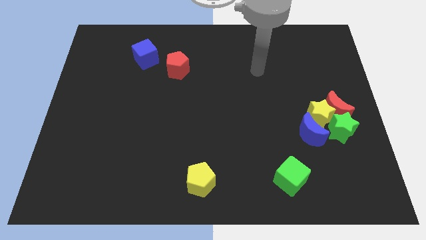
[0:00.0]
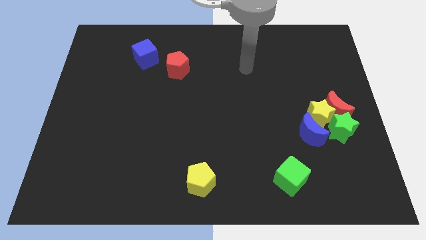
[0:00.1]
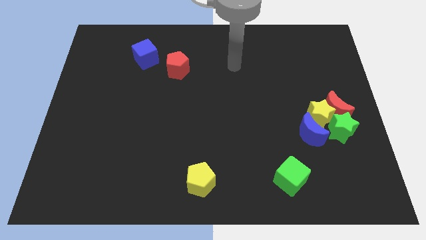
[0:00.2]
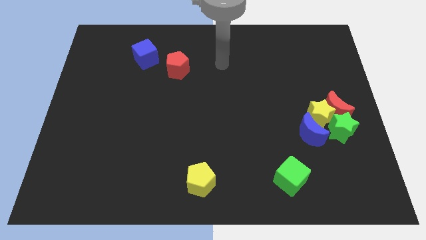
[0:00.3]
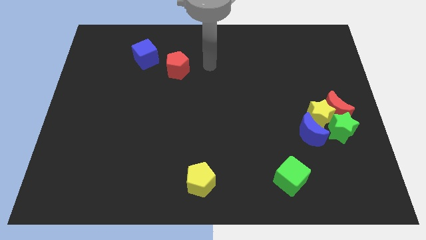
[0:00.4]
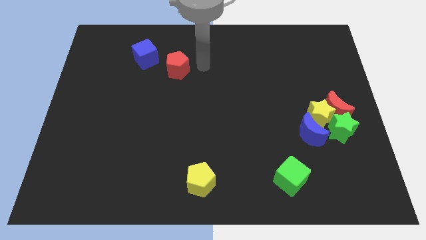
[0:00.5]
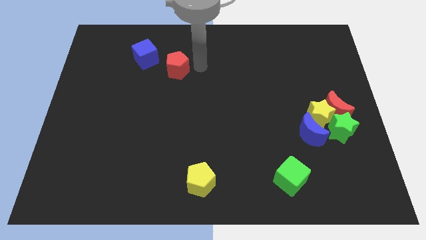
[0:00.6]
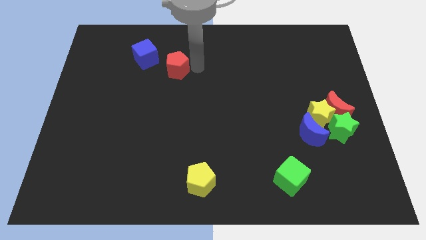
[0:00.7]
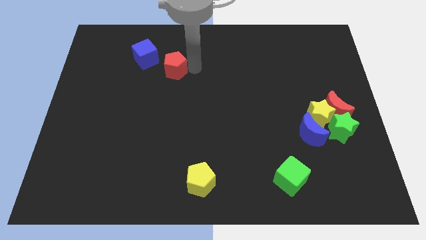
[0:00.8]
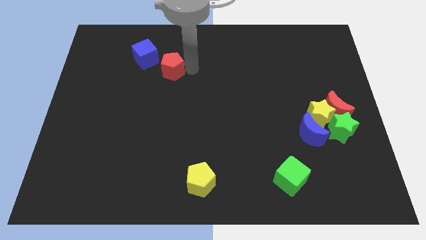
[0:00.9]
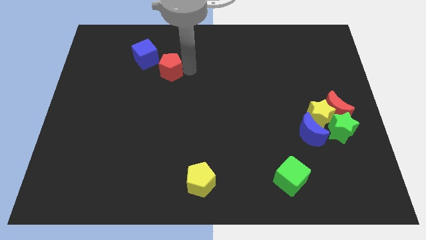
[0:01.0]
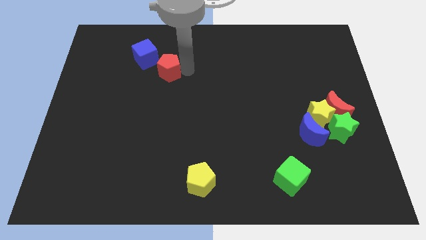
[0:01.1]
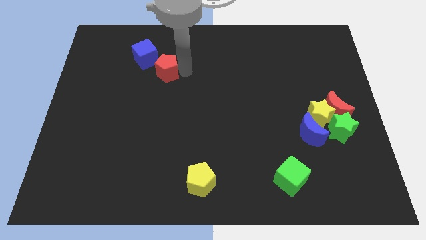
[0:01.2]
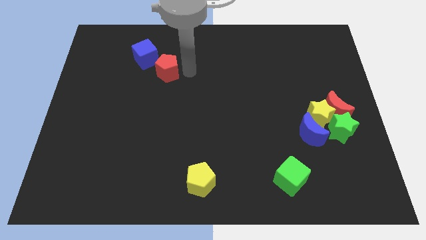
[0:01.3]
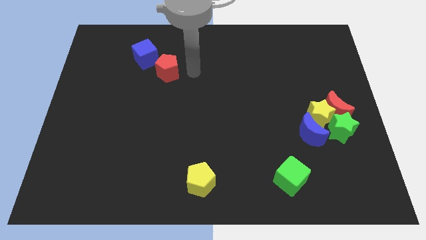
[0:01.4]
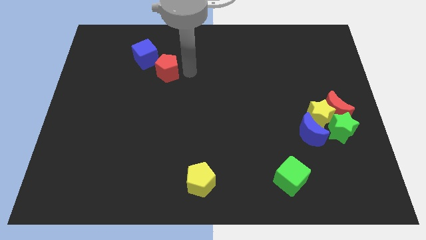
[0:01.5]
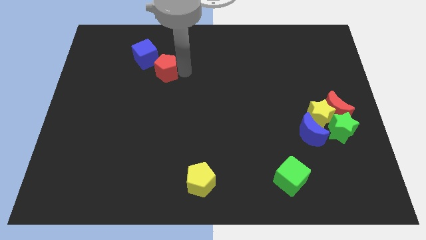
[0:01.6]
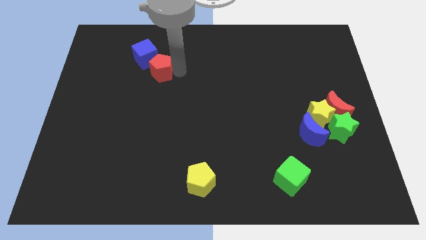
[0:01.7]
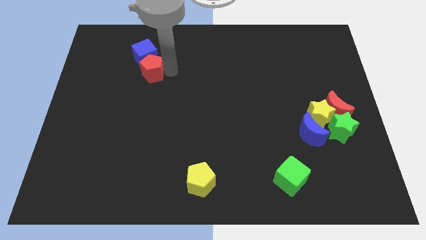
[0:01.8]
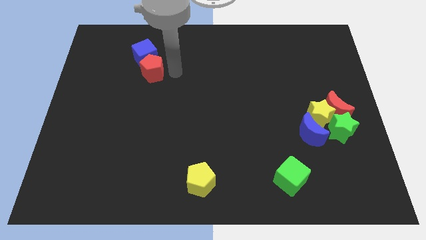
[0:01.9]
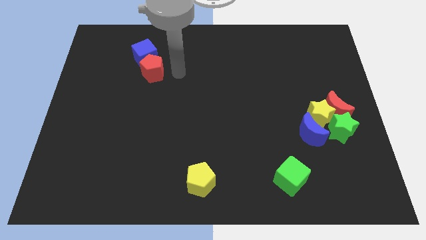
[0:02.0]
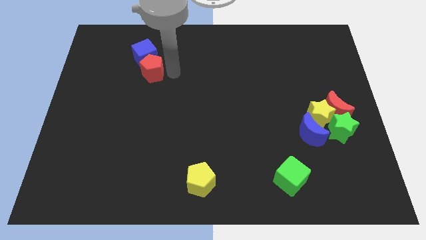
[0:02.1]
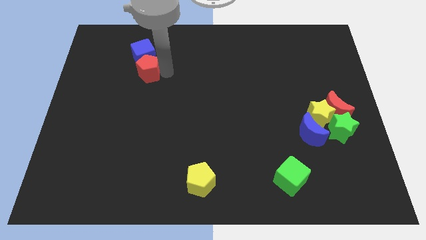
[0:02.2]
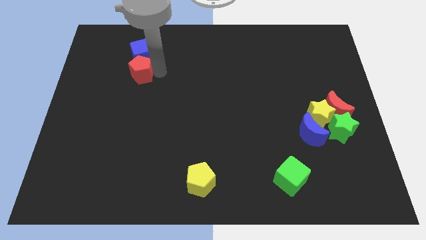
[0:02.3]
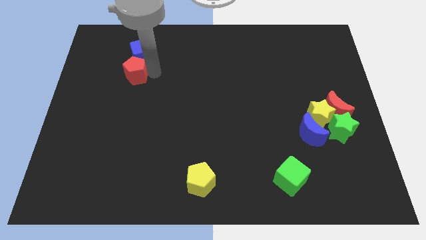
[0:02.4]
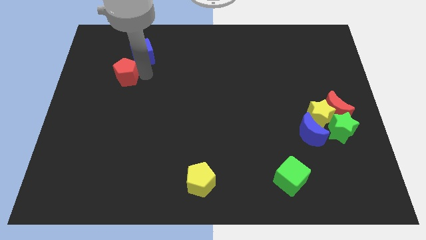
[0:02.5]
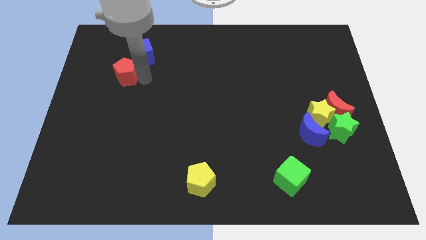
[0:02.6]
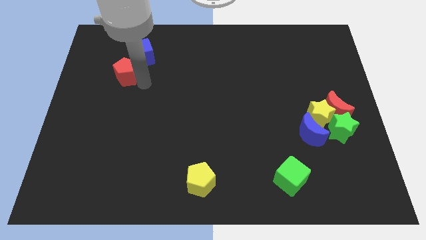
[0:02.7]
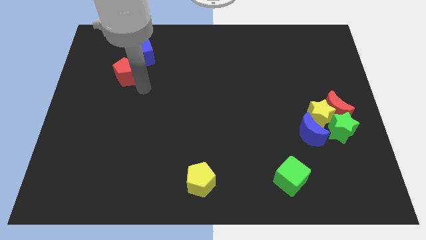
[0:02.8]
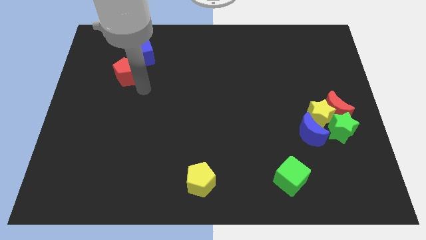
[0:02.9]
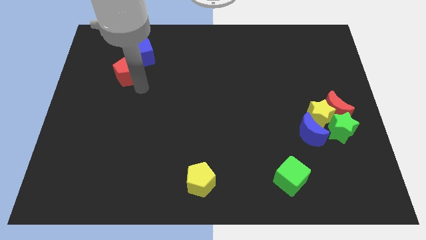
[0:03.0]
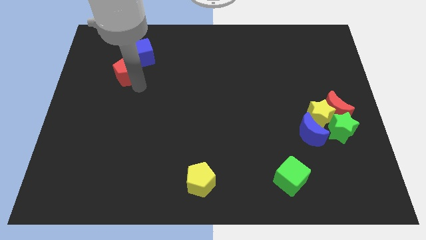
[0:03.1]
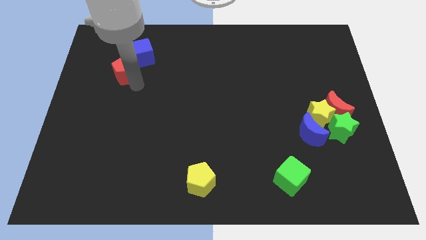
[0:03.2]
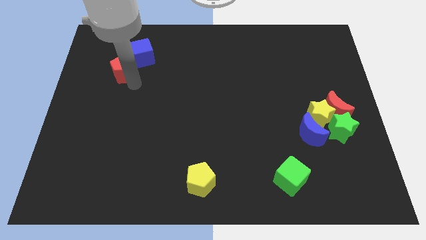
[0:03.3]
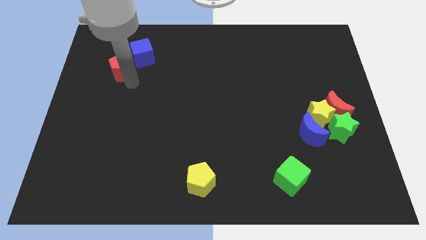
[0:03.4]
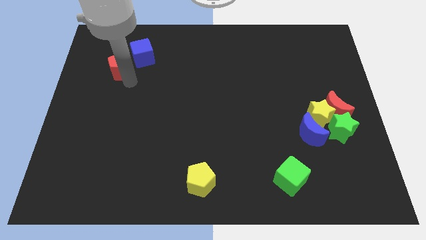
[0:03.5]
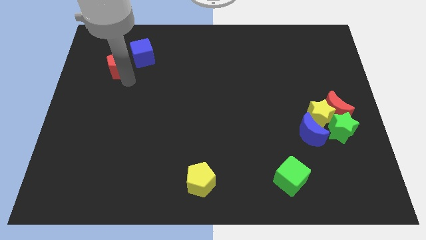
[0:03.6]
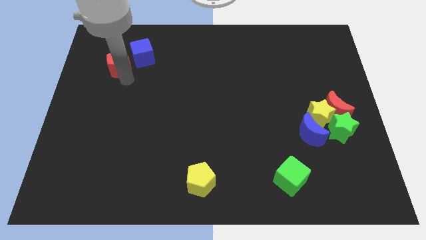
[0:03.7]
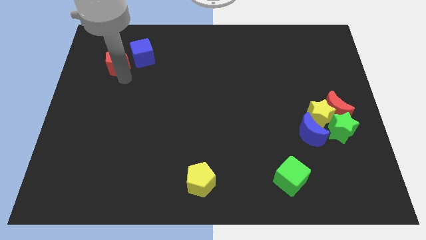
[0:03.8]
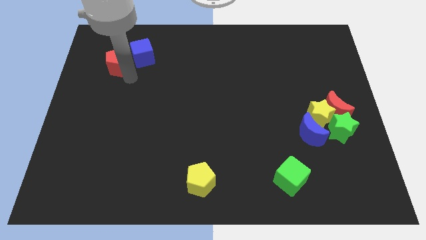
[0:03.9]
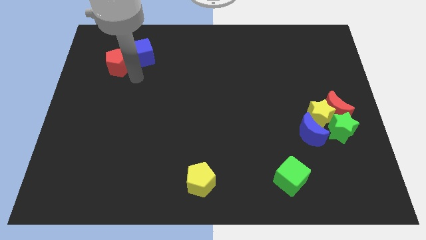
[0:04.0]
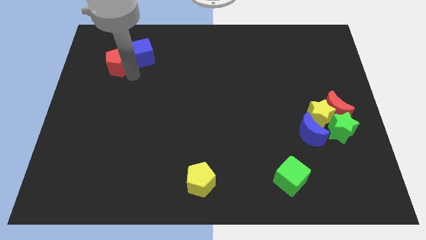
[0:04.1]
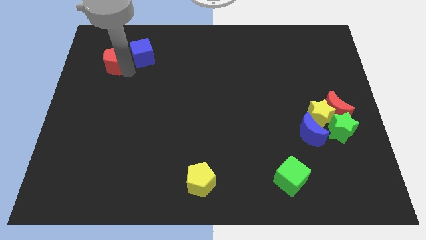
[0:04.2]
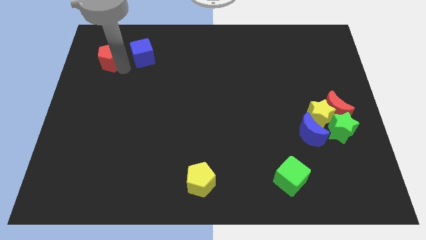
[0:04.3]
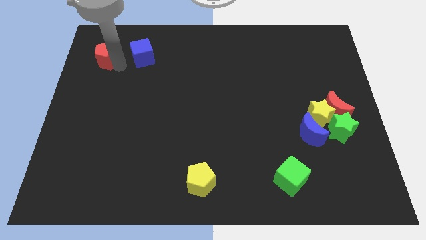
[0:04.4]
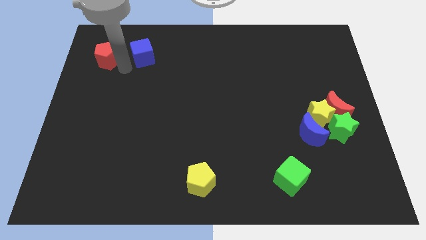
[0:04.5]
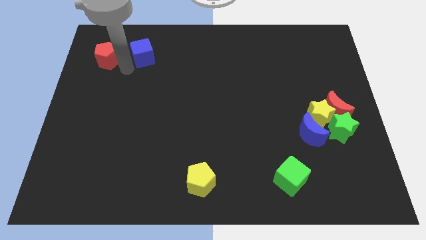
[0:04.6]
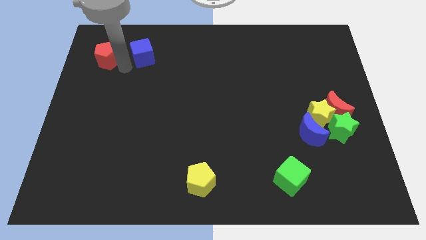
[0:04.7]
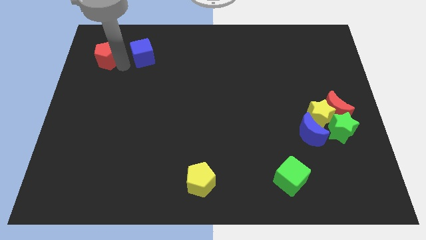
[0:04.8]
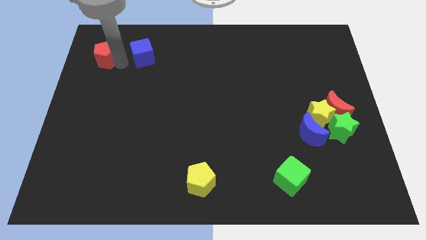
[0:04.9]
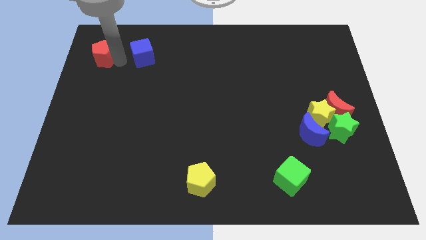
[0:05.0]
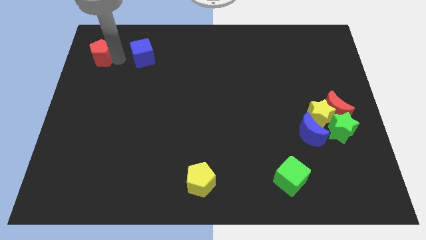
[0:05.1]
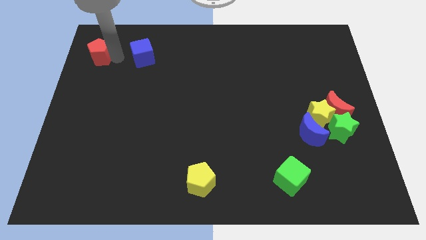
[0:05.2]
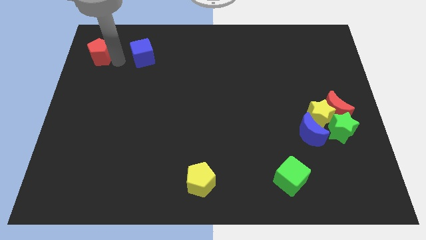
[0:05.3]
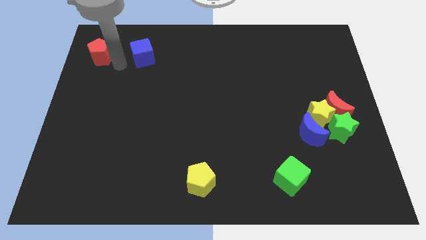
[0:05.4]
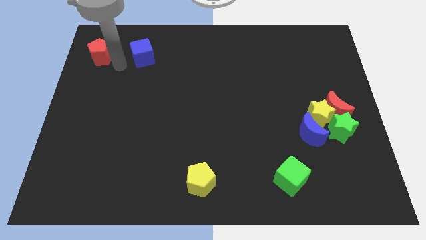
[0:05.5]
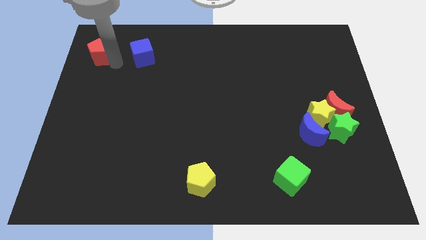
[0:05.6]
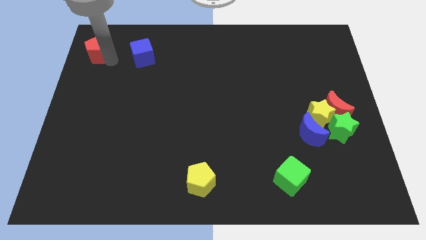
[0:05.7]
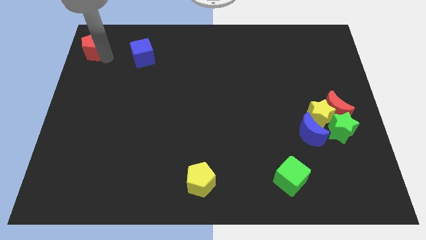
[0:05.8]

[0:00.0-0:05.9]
move the red pentagon to the top left

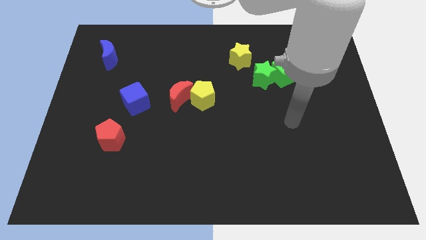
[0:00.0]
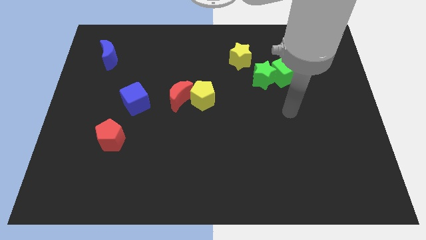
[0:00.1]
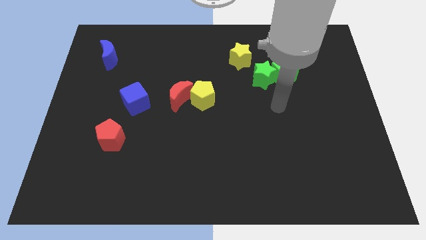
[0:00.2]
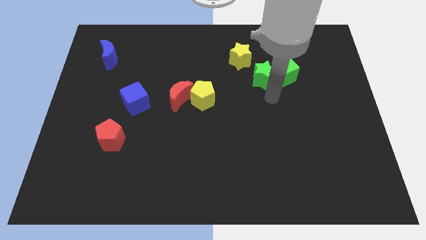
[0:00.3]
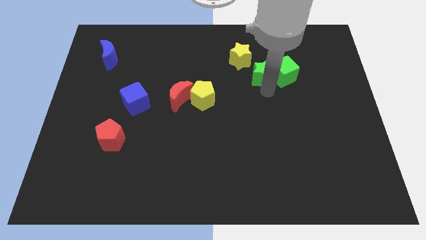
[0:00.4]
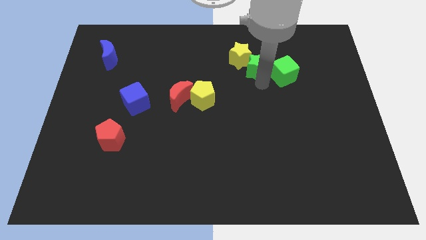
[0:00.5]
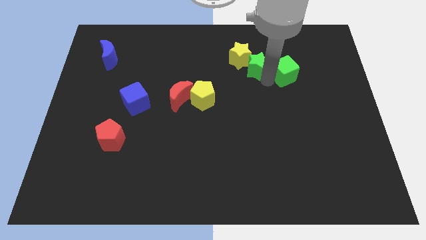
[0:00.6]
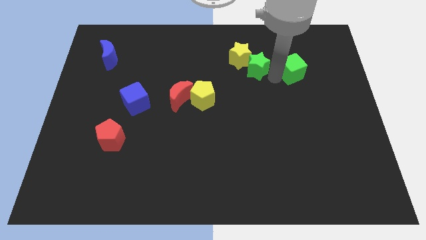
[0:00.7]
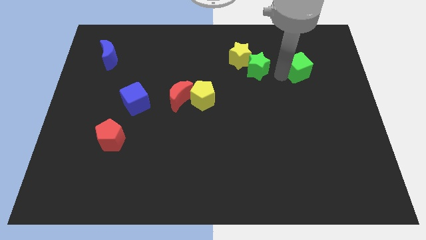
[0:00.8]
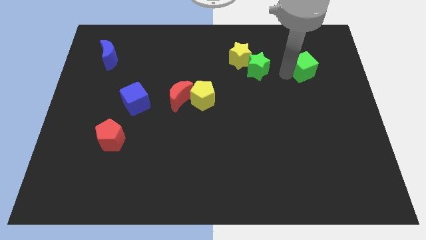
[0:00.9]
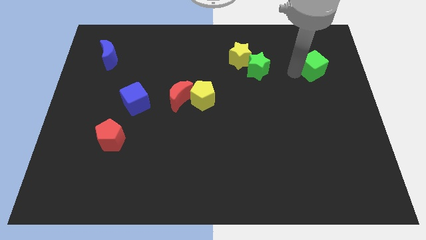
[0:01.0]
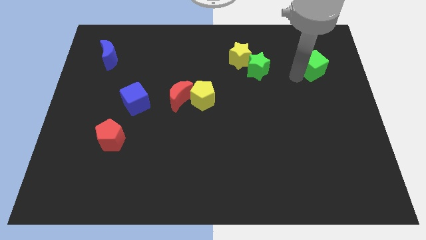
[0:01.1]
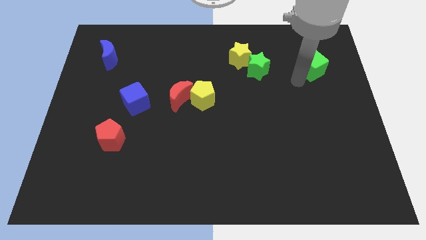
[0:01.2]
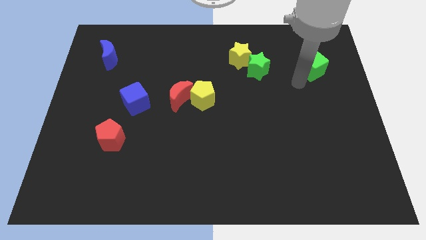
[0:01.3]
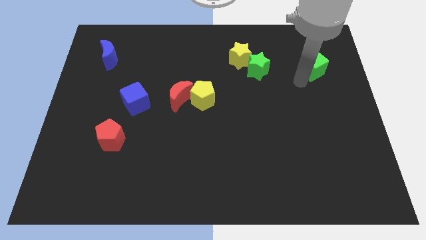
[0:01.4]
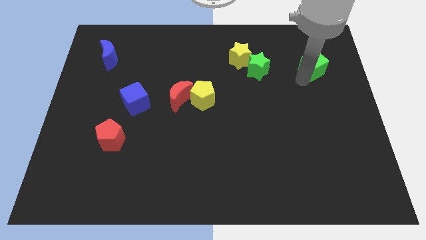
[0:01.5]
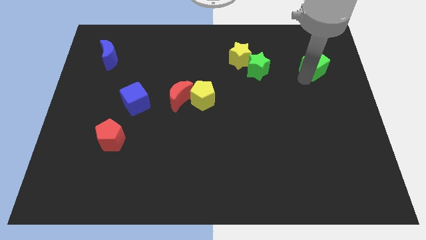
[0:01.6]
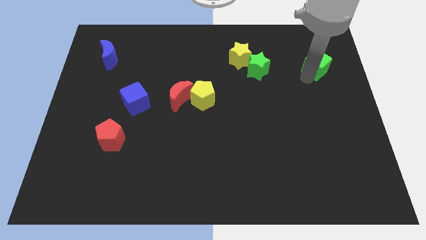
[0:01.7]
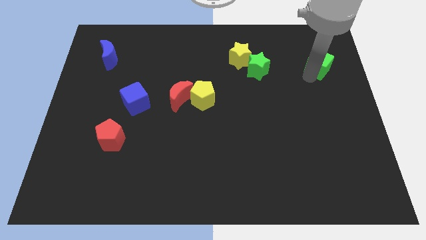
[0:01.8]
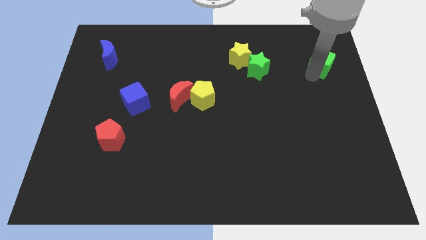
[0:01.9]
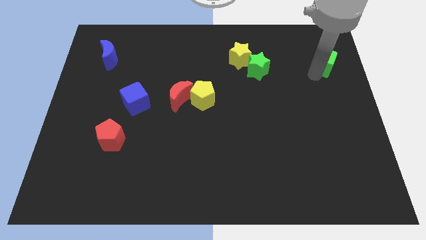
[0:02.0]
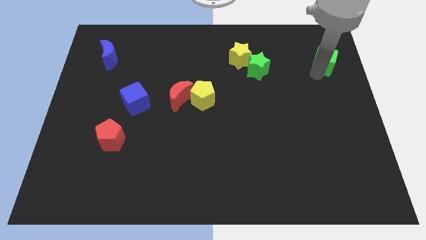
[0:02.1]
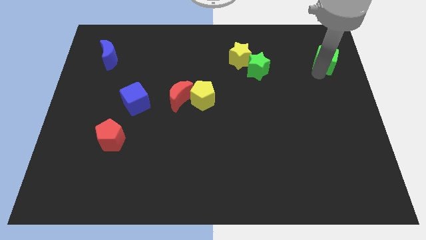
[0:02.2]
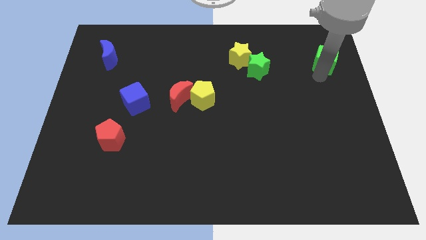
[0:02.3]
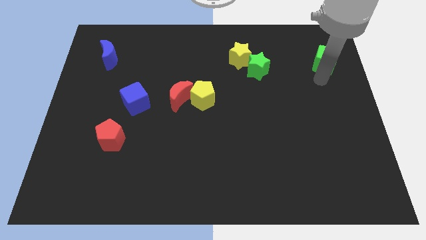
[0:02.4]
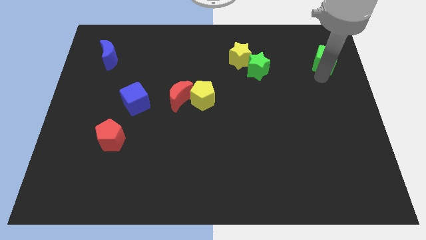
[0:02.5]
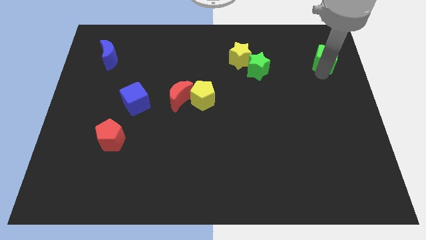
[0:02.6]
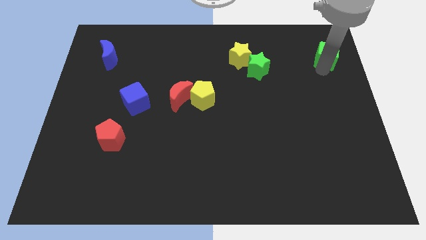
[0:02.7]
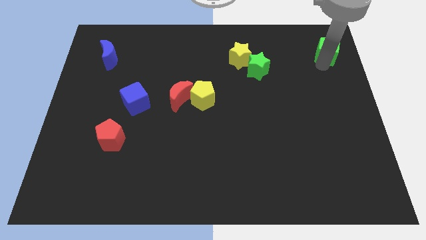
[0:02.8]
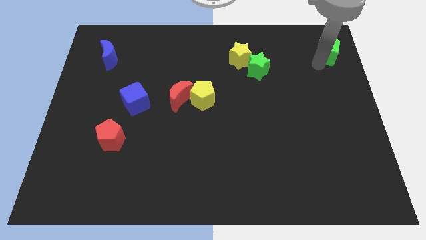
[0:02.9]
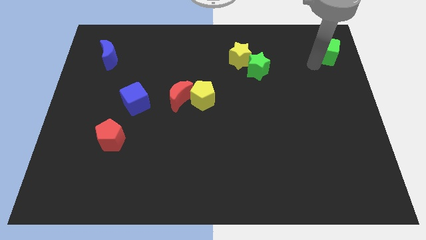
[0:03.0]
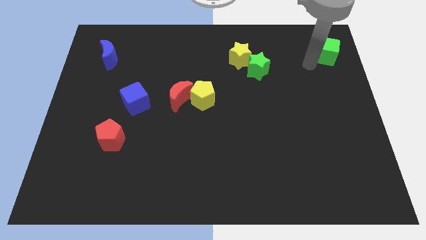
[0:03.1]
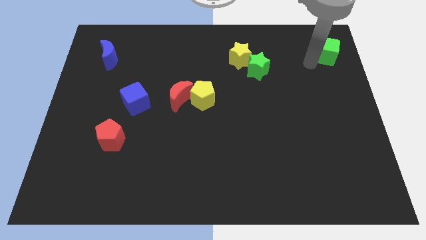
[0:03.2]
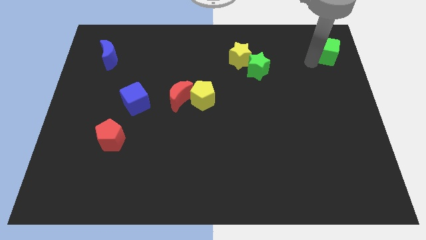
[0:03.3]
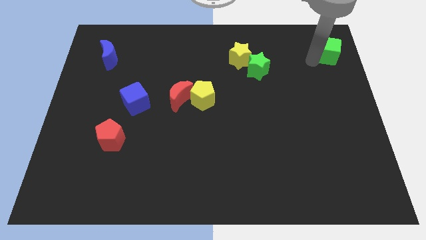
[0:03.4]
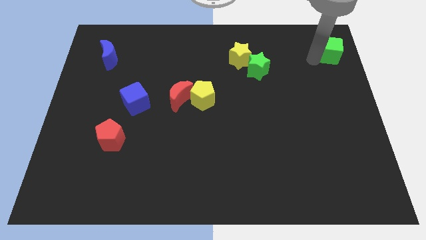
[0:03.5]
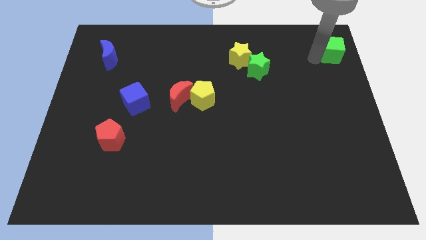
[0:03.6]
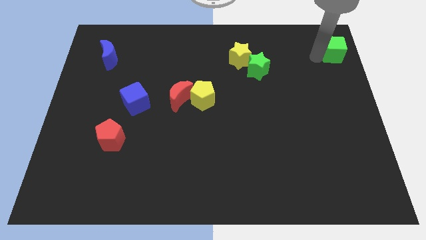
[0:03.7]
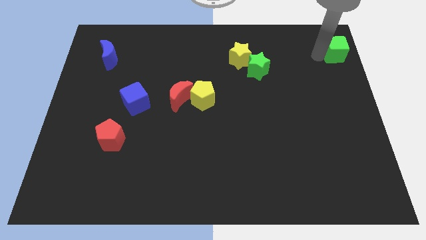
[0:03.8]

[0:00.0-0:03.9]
slide the green cube to the top right of the board
